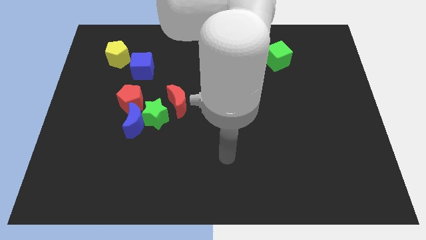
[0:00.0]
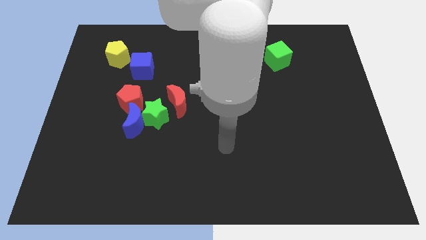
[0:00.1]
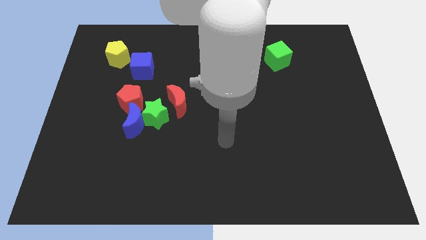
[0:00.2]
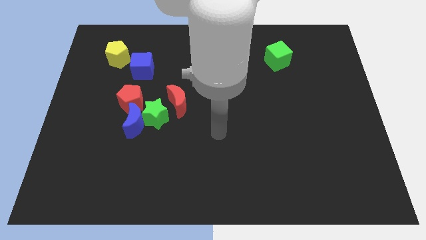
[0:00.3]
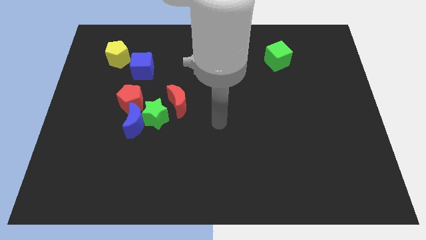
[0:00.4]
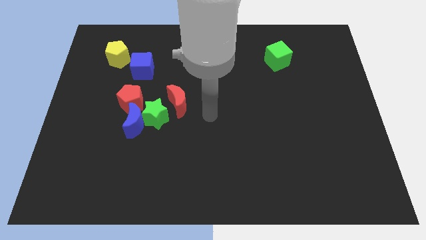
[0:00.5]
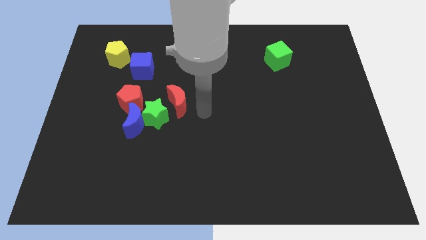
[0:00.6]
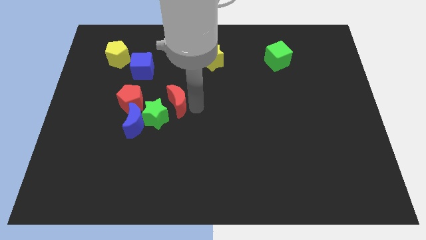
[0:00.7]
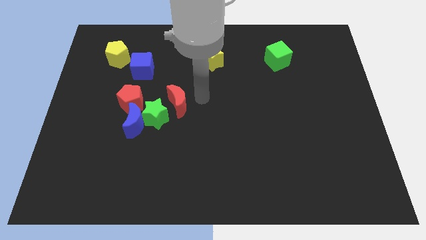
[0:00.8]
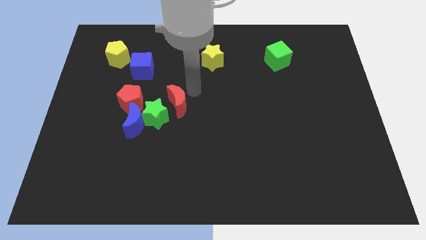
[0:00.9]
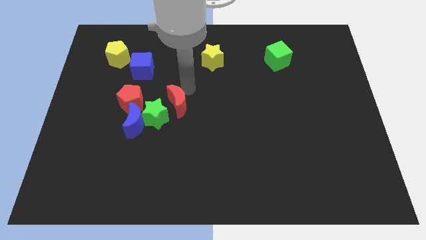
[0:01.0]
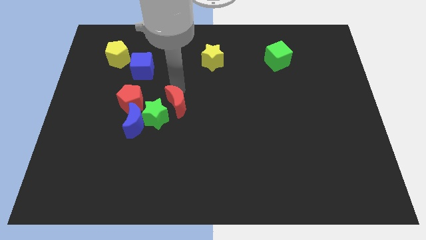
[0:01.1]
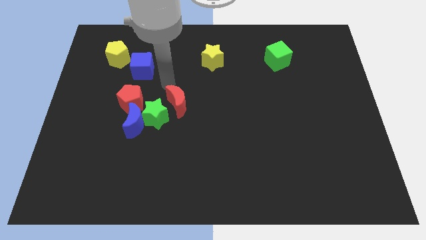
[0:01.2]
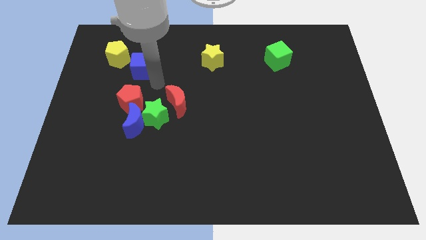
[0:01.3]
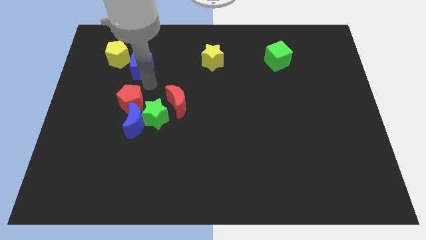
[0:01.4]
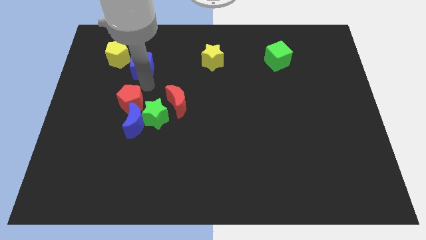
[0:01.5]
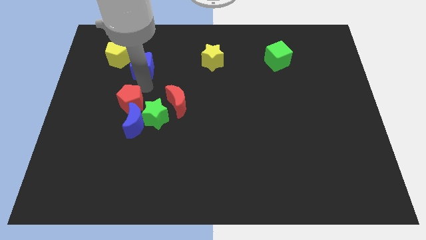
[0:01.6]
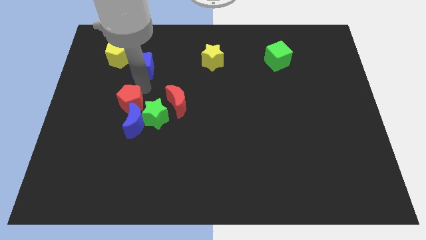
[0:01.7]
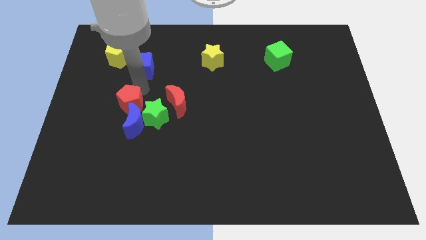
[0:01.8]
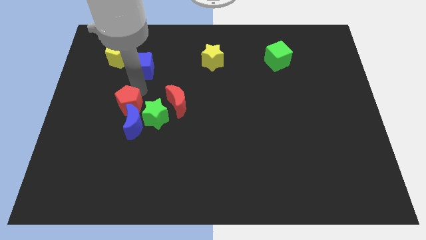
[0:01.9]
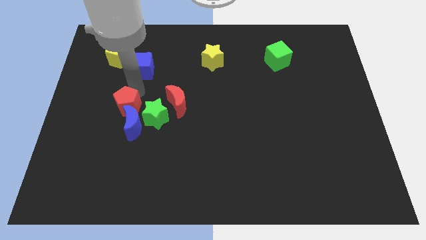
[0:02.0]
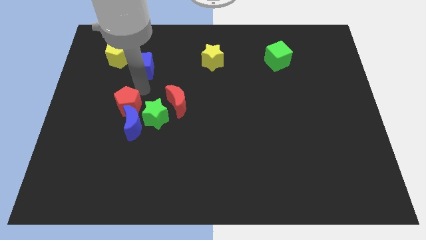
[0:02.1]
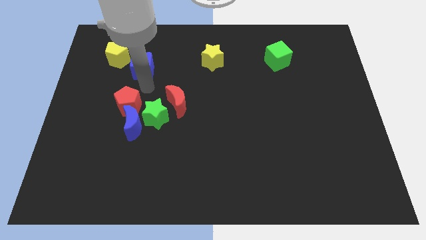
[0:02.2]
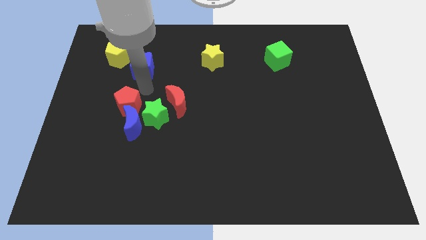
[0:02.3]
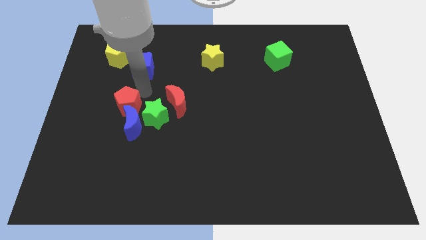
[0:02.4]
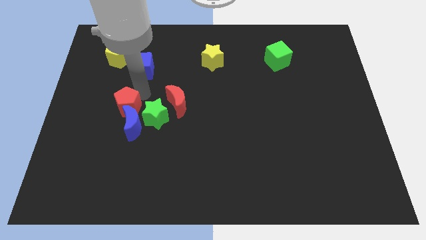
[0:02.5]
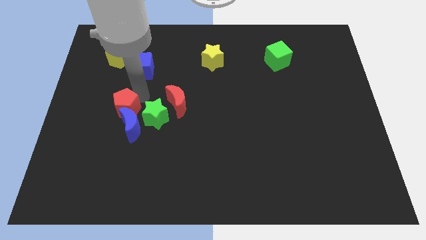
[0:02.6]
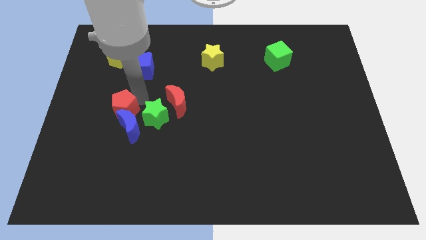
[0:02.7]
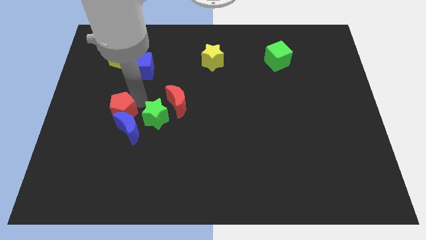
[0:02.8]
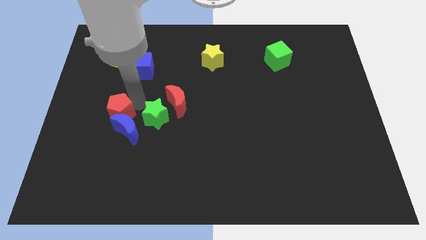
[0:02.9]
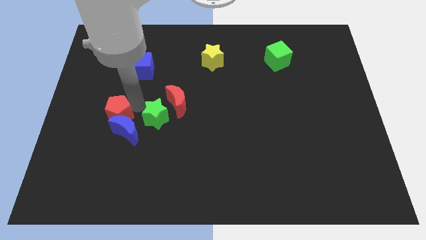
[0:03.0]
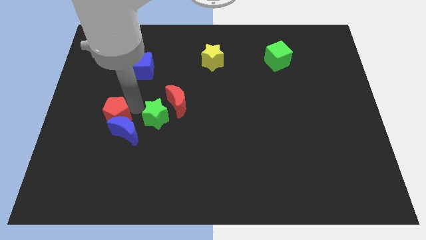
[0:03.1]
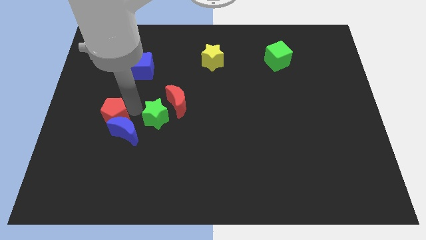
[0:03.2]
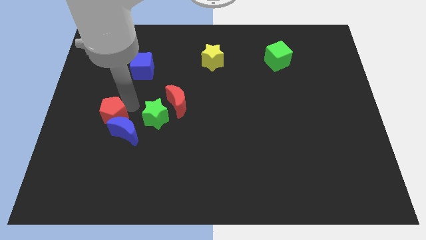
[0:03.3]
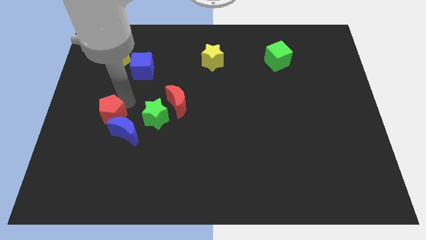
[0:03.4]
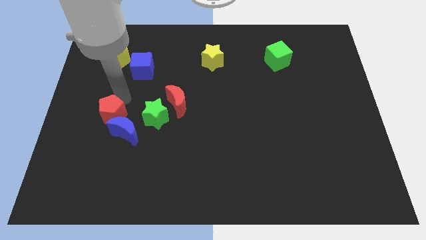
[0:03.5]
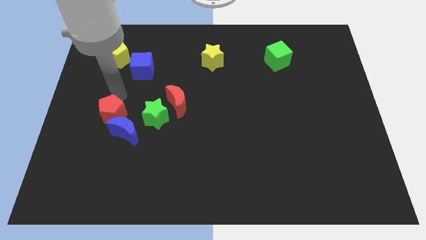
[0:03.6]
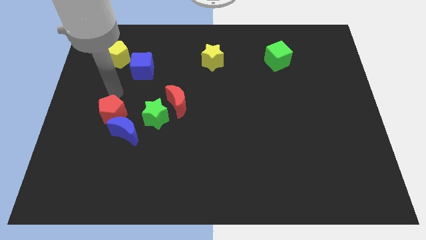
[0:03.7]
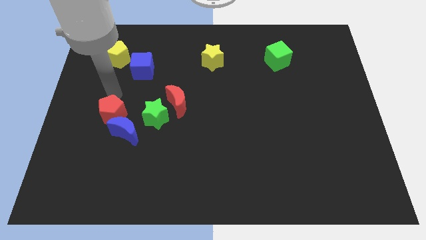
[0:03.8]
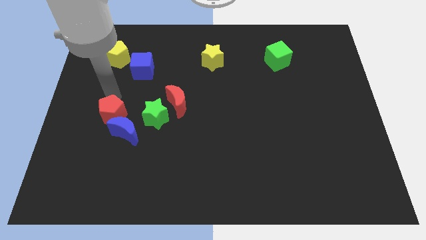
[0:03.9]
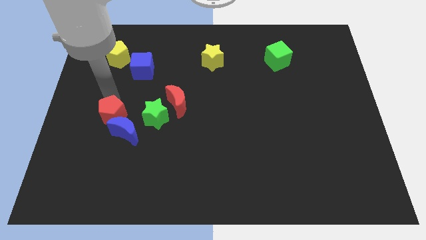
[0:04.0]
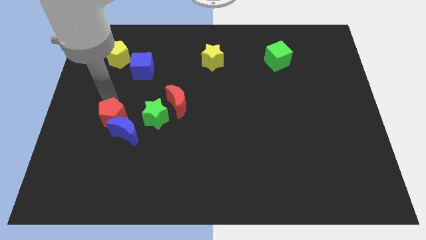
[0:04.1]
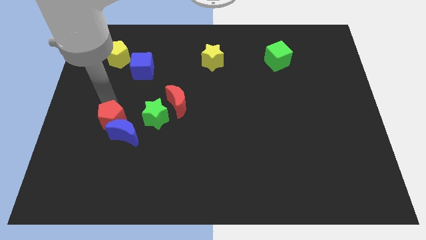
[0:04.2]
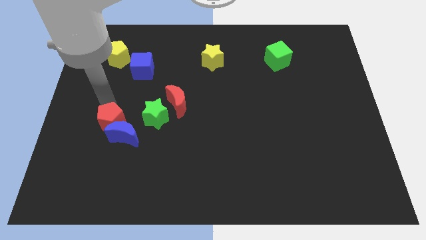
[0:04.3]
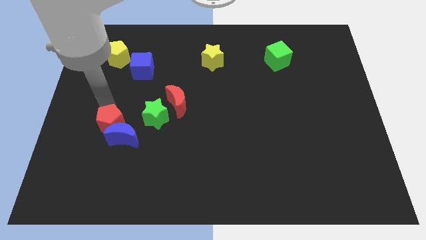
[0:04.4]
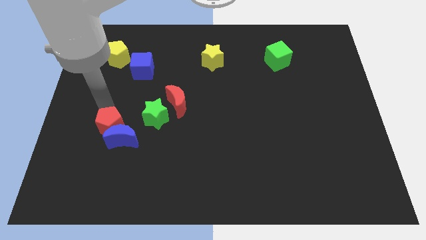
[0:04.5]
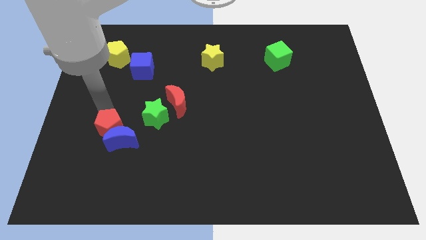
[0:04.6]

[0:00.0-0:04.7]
slightly push the red pentagon down

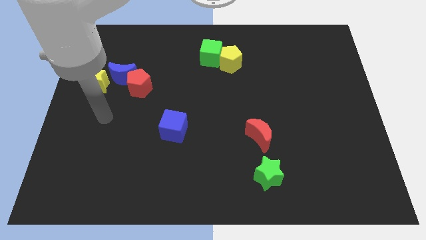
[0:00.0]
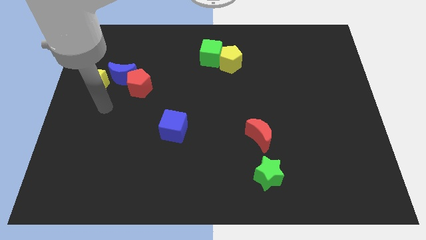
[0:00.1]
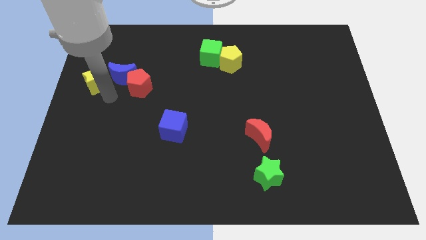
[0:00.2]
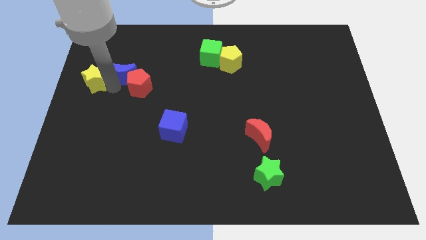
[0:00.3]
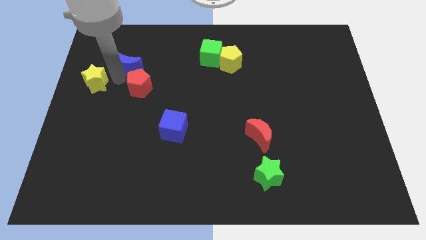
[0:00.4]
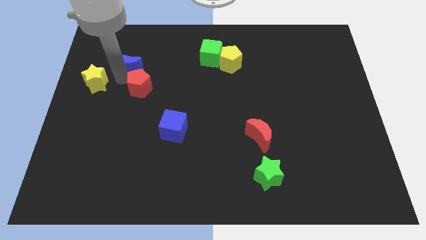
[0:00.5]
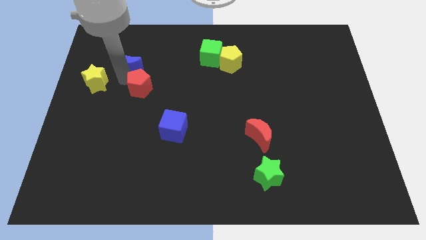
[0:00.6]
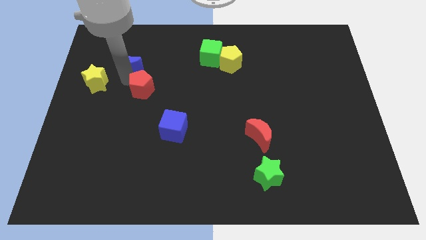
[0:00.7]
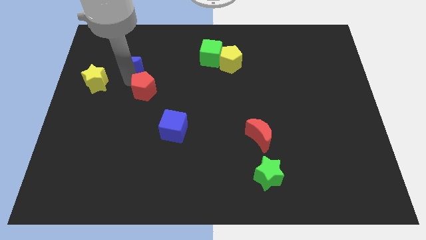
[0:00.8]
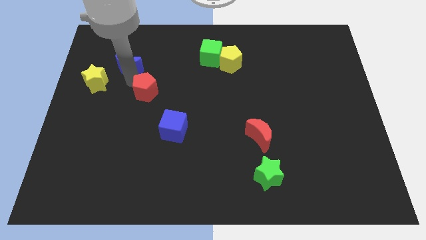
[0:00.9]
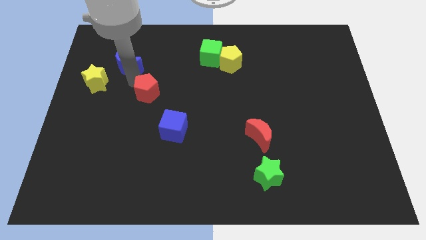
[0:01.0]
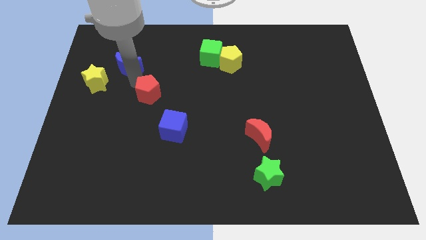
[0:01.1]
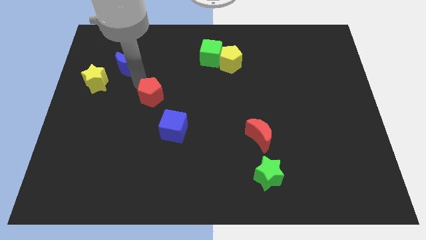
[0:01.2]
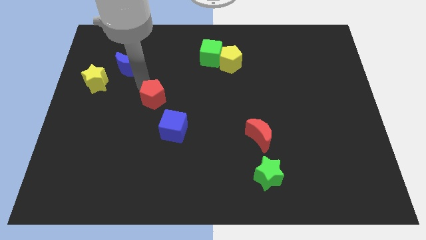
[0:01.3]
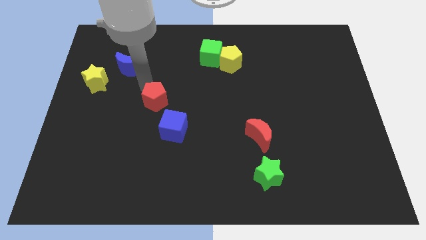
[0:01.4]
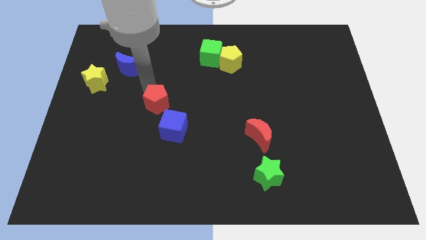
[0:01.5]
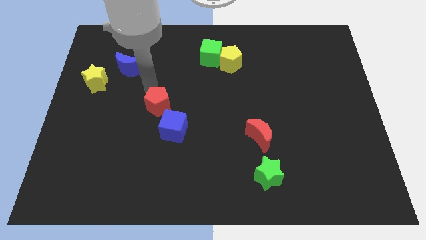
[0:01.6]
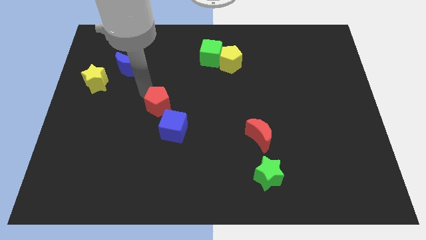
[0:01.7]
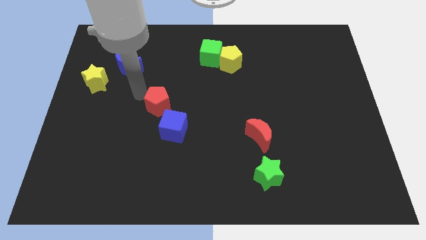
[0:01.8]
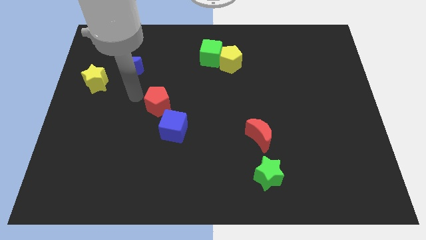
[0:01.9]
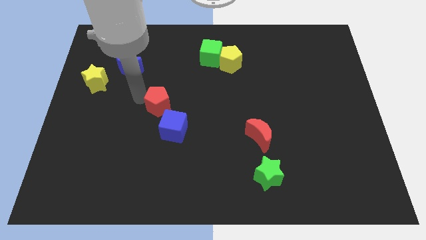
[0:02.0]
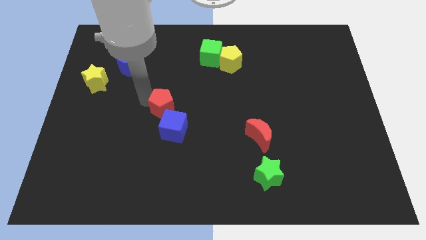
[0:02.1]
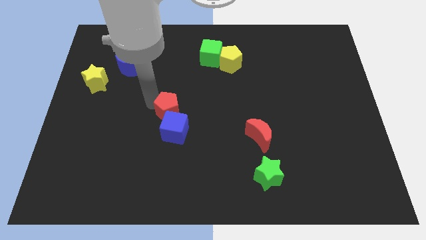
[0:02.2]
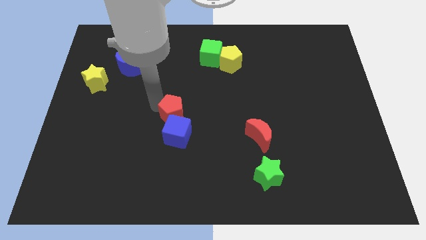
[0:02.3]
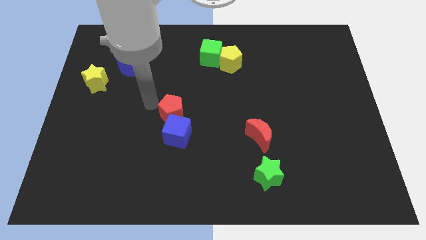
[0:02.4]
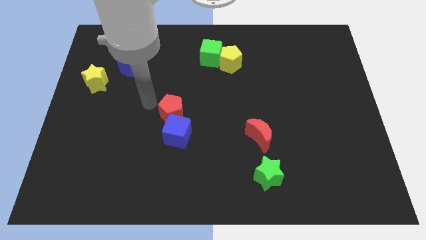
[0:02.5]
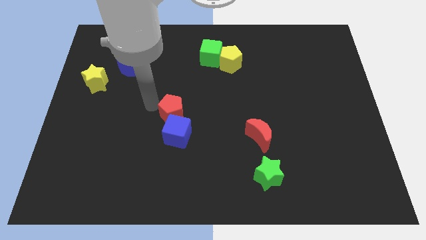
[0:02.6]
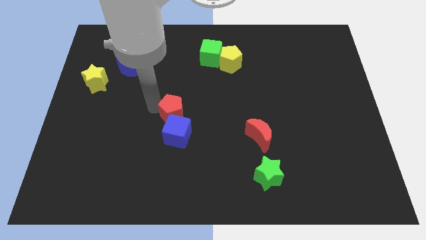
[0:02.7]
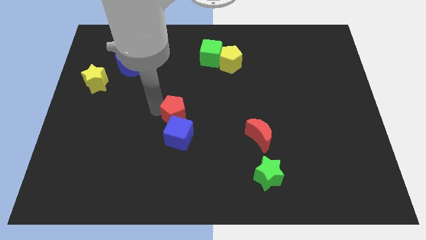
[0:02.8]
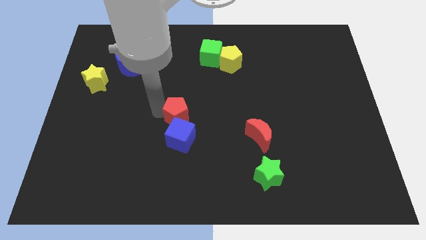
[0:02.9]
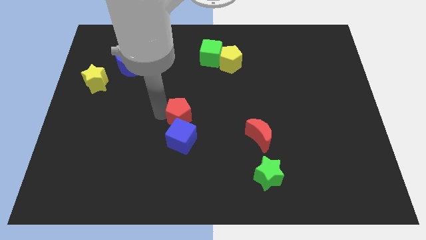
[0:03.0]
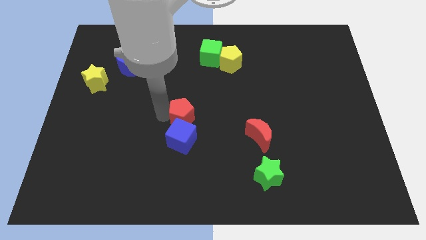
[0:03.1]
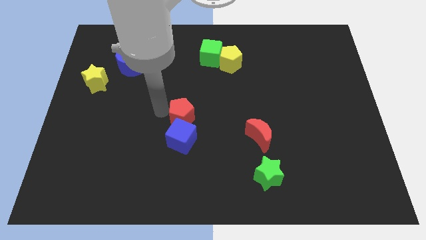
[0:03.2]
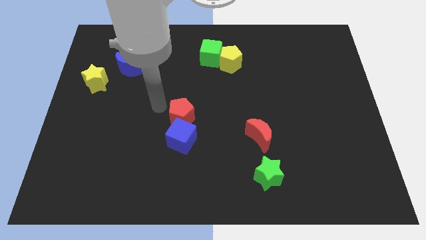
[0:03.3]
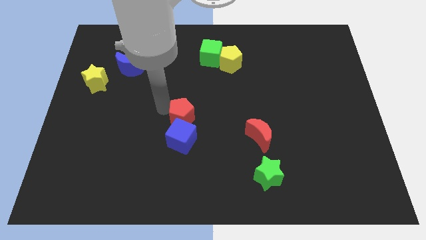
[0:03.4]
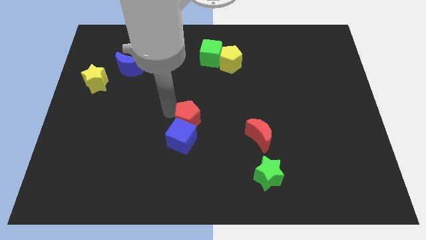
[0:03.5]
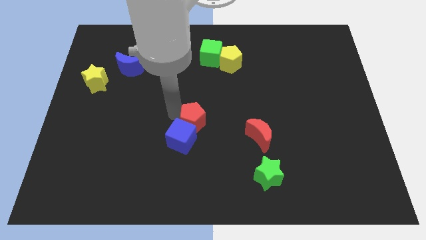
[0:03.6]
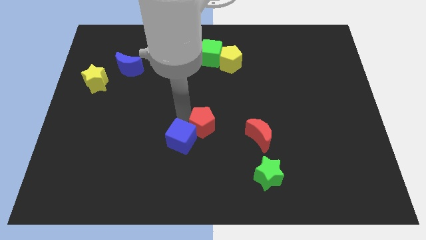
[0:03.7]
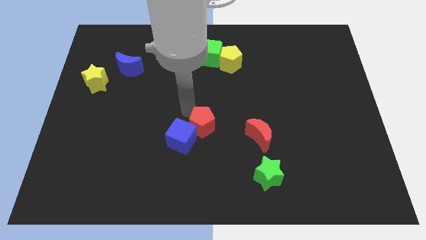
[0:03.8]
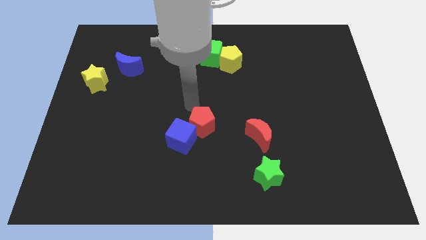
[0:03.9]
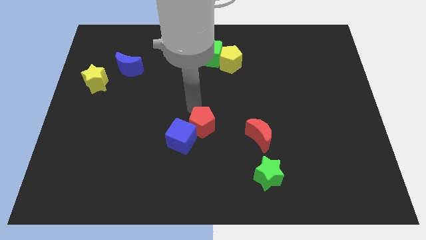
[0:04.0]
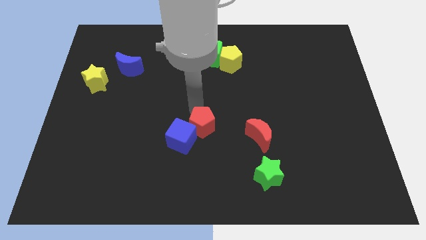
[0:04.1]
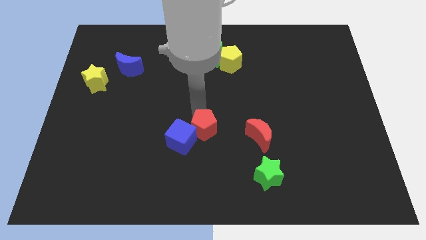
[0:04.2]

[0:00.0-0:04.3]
slide the red pentagon down and to the right
